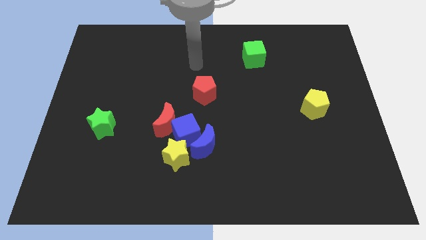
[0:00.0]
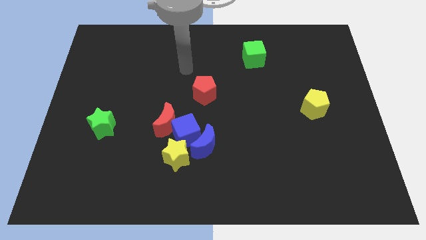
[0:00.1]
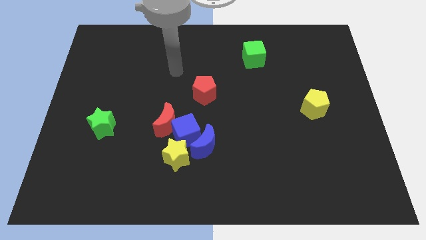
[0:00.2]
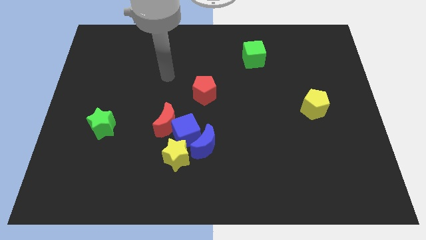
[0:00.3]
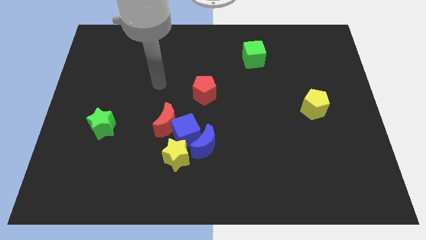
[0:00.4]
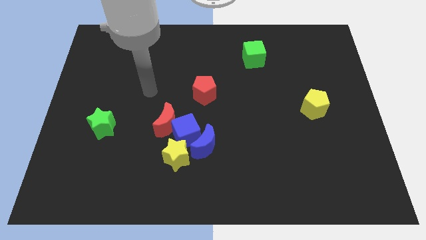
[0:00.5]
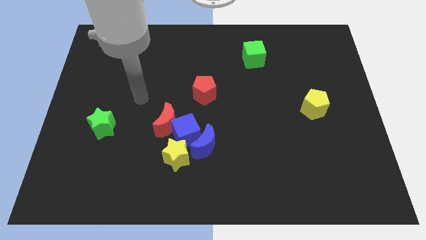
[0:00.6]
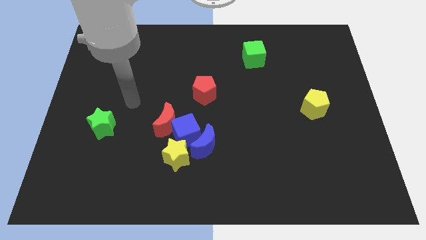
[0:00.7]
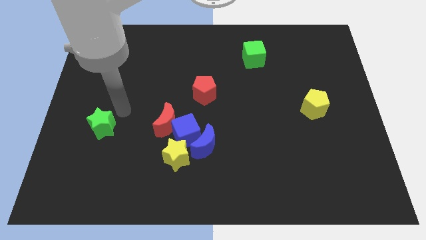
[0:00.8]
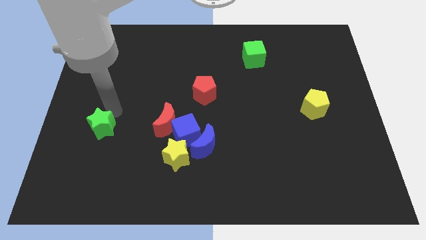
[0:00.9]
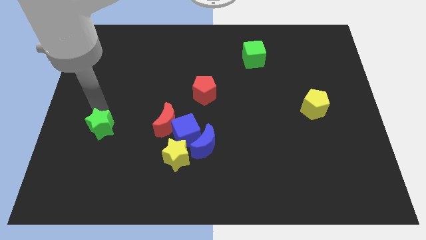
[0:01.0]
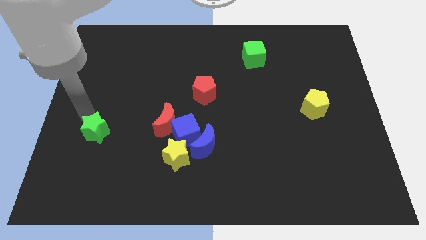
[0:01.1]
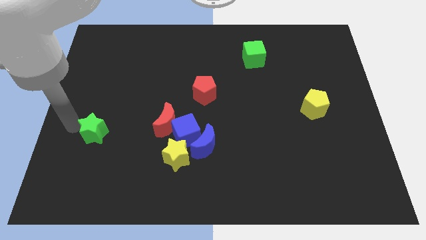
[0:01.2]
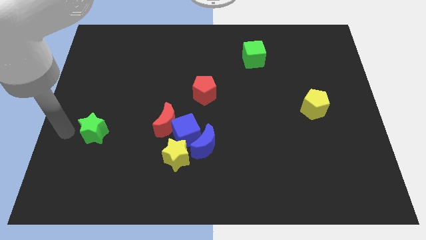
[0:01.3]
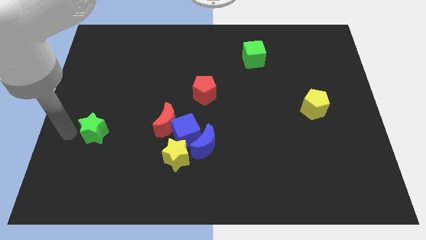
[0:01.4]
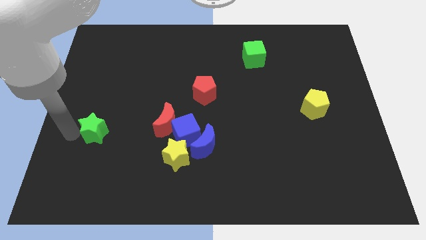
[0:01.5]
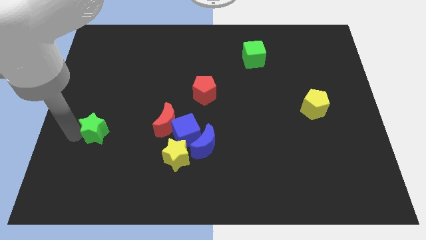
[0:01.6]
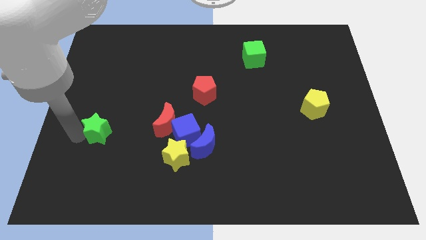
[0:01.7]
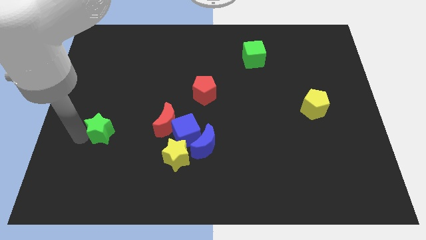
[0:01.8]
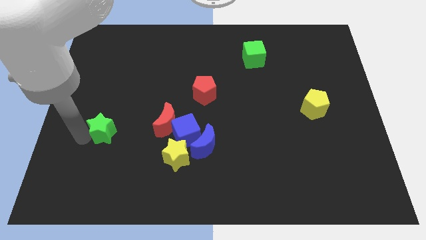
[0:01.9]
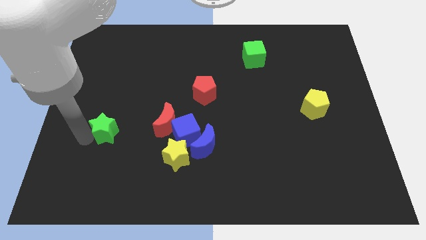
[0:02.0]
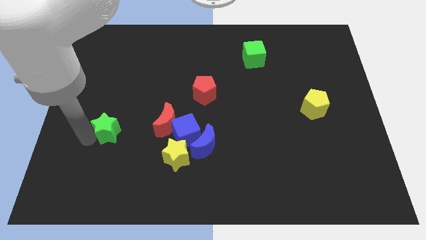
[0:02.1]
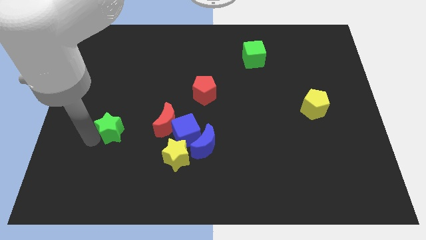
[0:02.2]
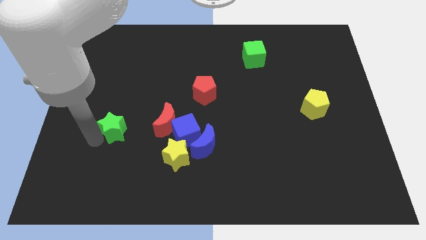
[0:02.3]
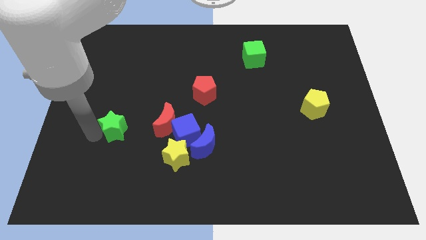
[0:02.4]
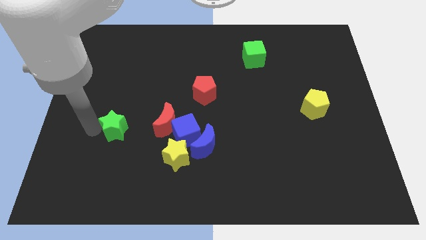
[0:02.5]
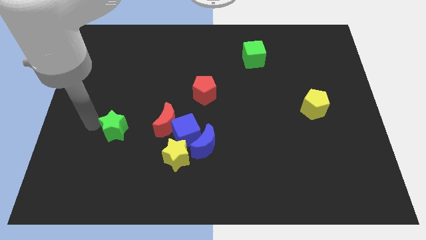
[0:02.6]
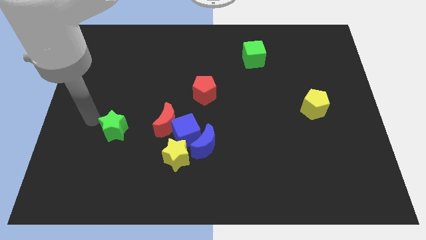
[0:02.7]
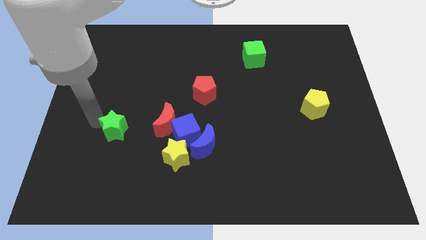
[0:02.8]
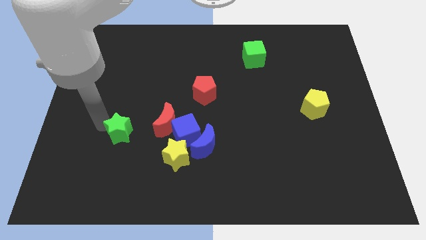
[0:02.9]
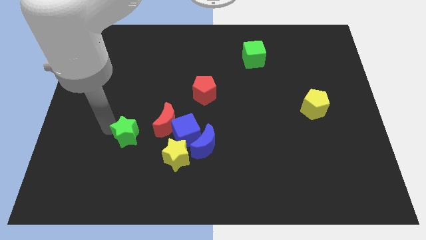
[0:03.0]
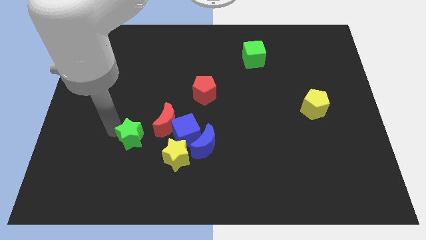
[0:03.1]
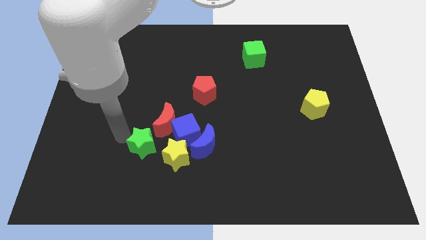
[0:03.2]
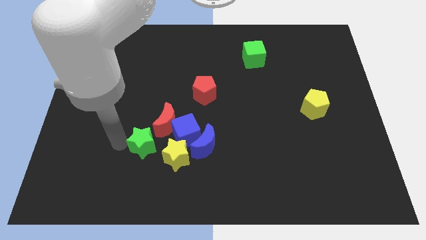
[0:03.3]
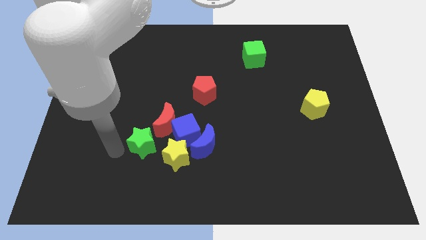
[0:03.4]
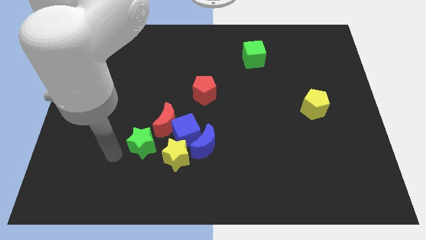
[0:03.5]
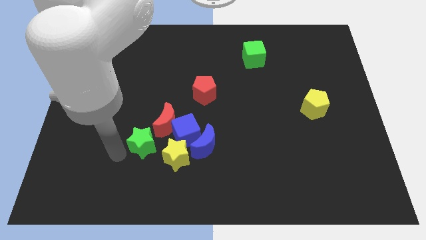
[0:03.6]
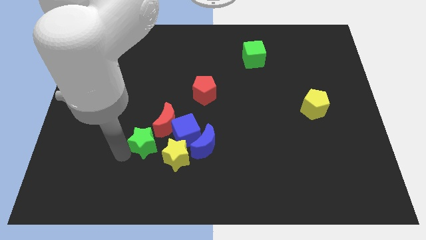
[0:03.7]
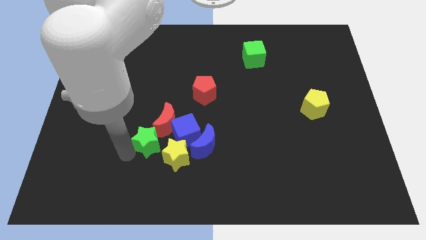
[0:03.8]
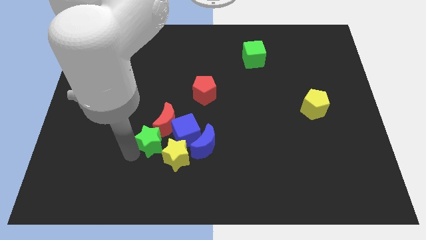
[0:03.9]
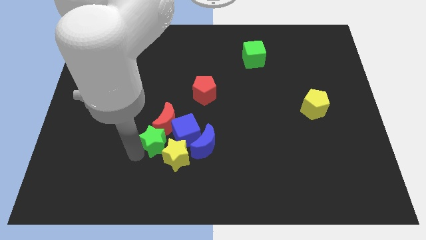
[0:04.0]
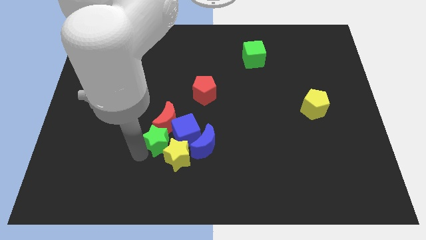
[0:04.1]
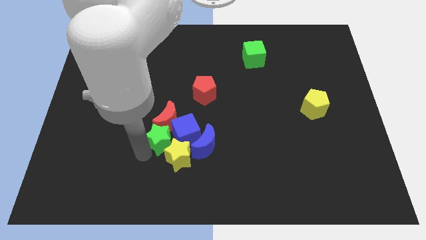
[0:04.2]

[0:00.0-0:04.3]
slide the green star to the blue cube

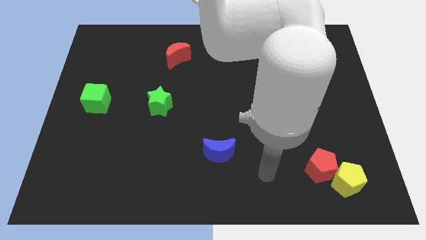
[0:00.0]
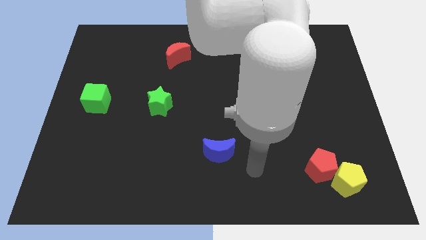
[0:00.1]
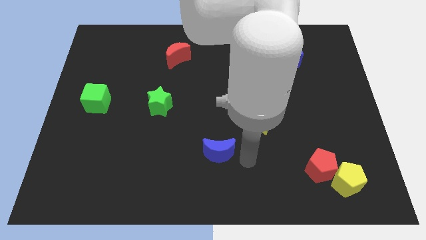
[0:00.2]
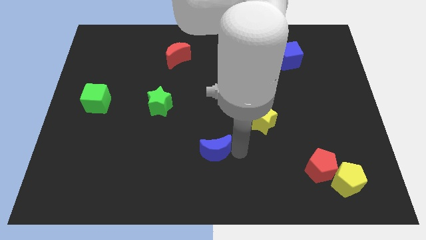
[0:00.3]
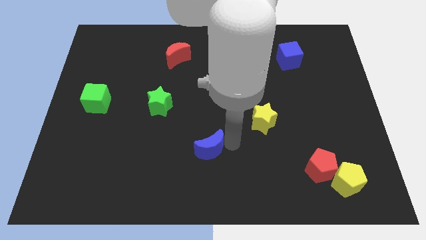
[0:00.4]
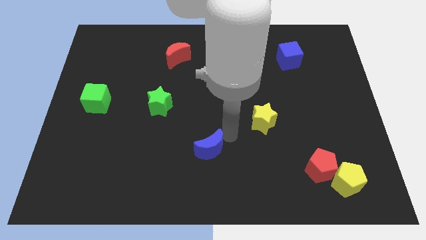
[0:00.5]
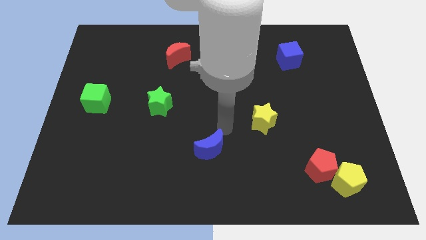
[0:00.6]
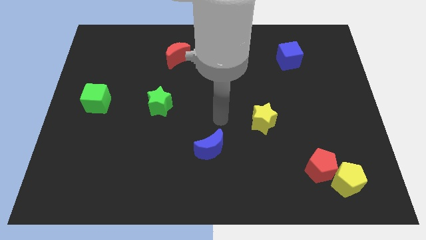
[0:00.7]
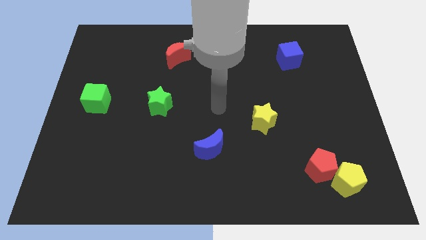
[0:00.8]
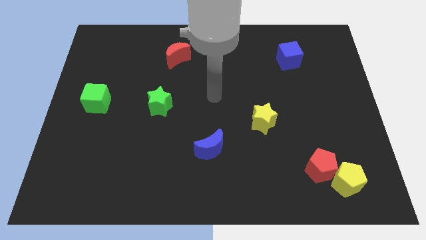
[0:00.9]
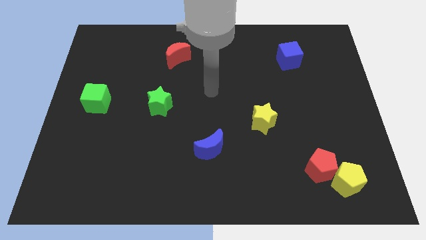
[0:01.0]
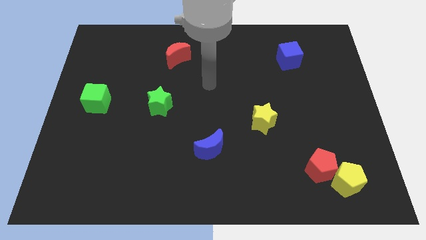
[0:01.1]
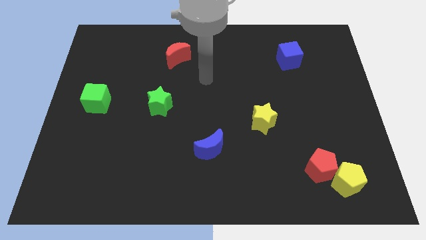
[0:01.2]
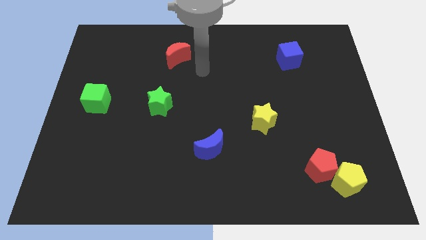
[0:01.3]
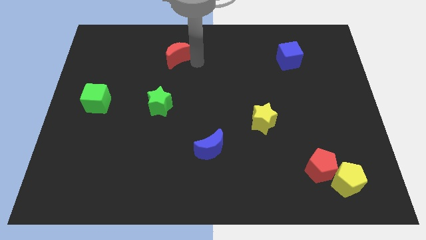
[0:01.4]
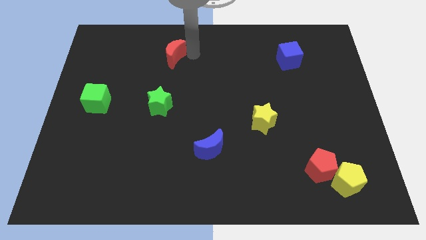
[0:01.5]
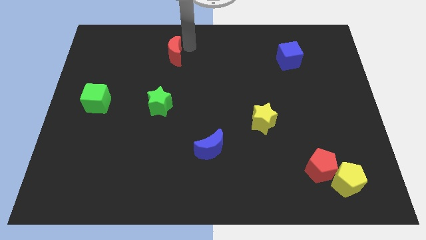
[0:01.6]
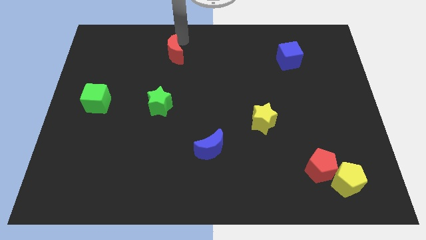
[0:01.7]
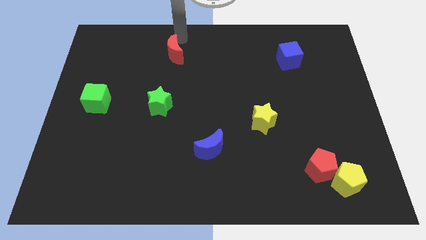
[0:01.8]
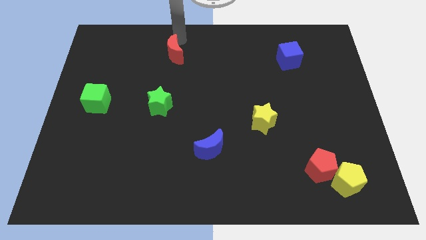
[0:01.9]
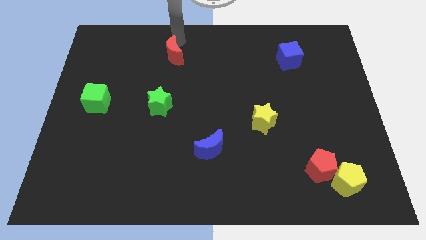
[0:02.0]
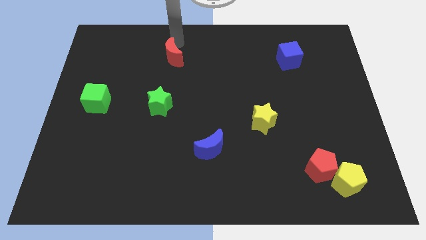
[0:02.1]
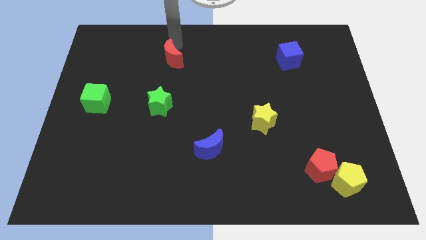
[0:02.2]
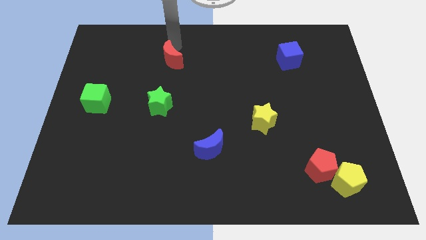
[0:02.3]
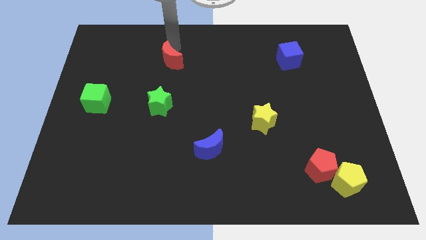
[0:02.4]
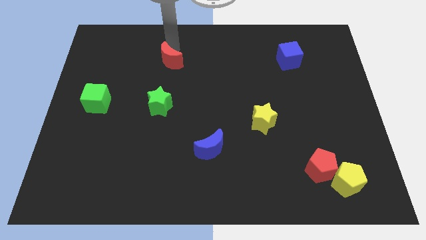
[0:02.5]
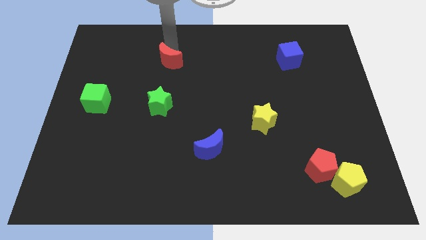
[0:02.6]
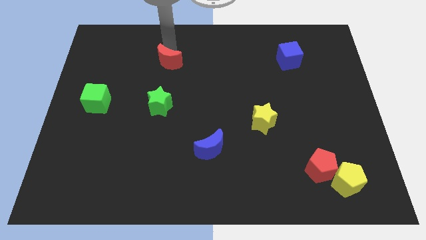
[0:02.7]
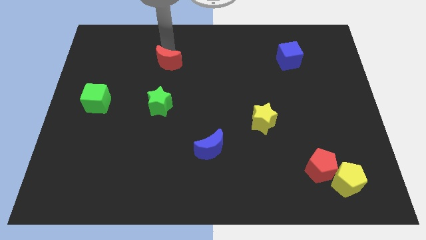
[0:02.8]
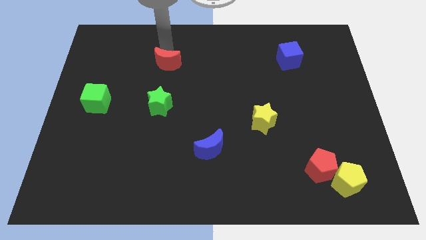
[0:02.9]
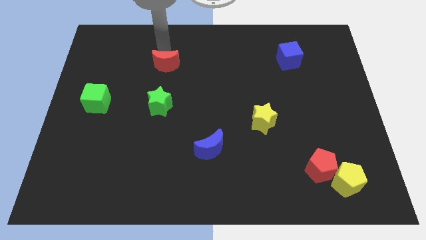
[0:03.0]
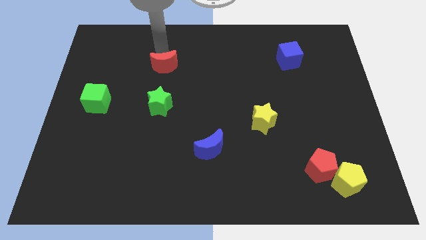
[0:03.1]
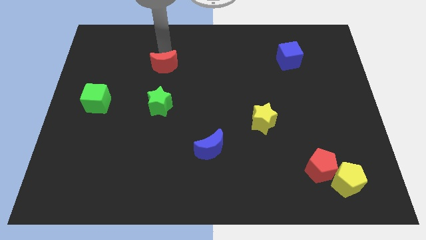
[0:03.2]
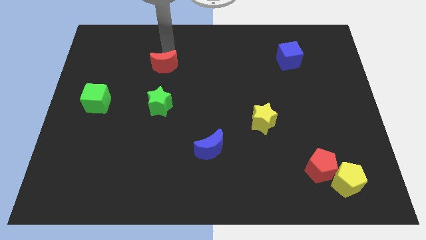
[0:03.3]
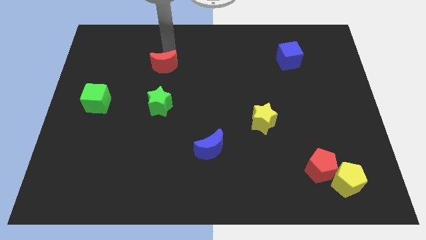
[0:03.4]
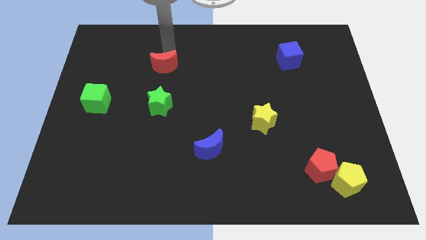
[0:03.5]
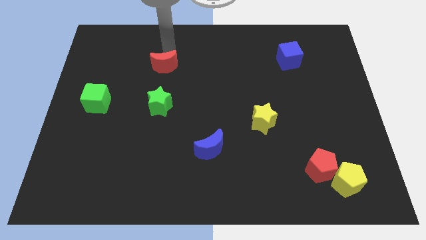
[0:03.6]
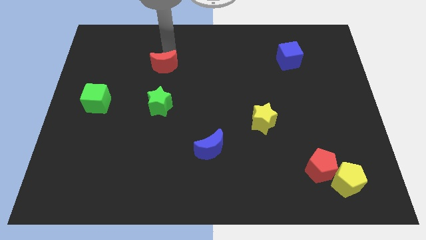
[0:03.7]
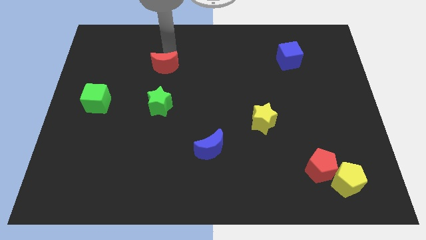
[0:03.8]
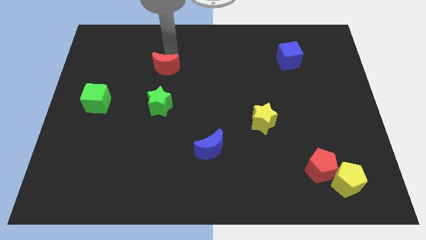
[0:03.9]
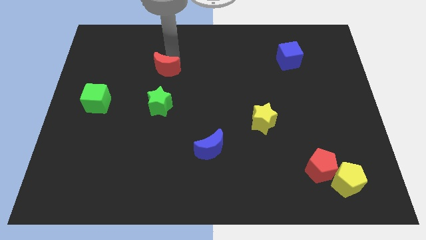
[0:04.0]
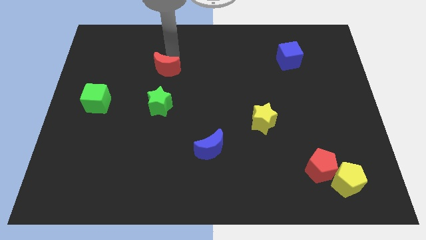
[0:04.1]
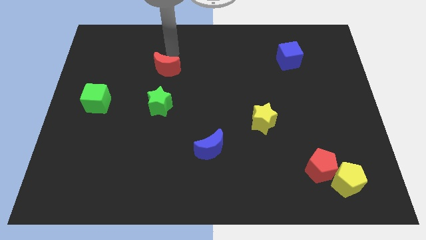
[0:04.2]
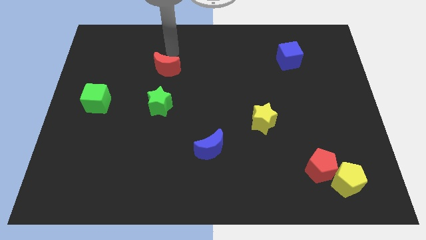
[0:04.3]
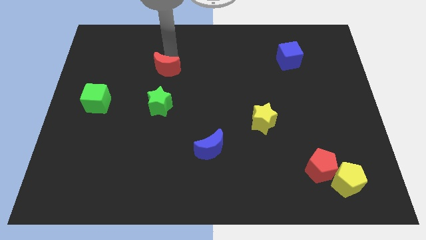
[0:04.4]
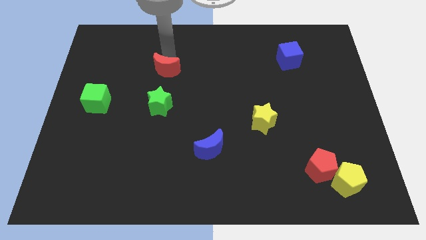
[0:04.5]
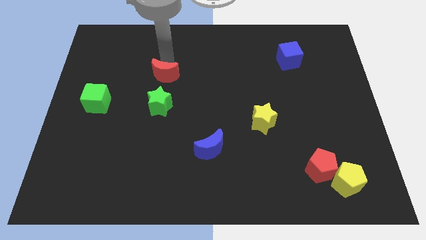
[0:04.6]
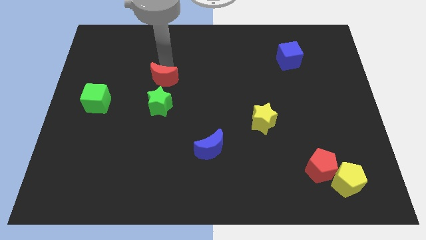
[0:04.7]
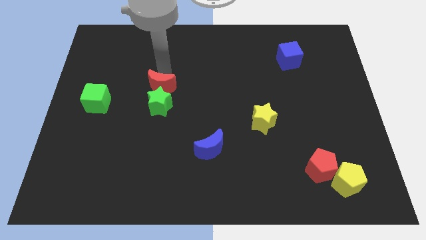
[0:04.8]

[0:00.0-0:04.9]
slide the red moon next to the green star
